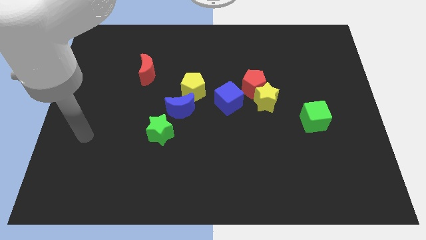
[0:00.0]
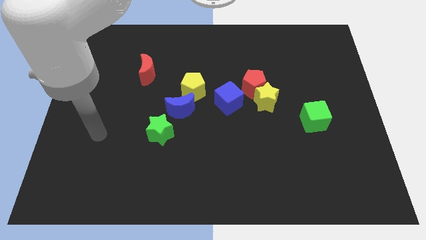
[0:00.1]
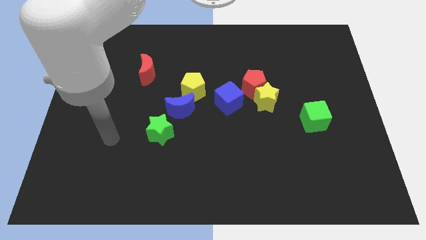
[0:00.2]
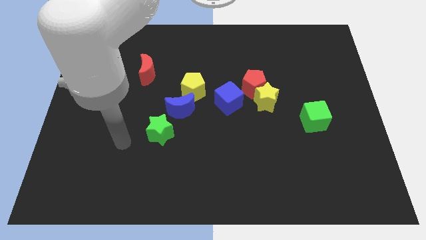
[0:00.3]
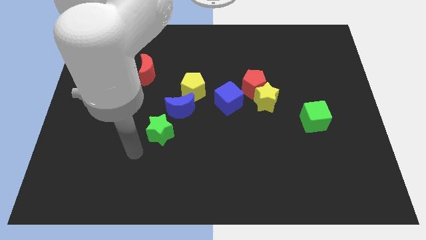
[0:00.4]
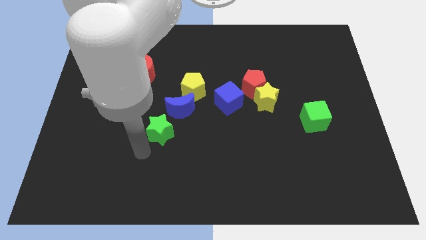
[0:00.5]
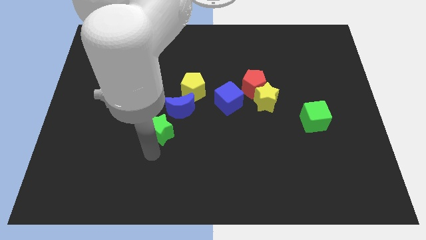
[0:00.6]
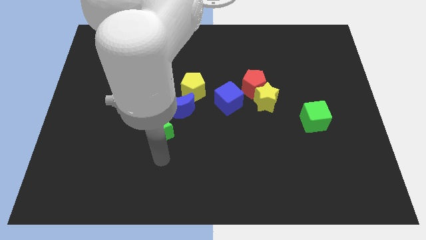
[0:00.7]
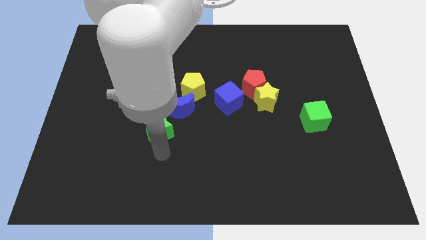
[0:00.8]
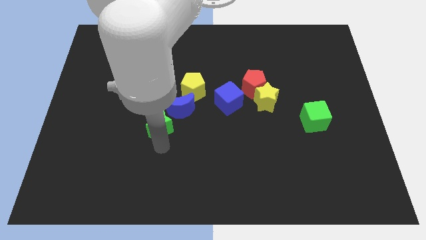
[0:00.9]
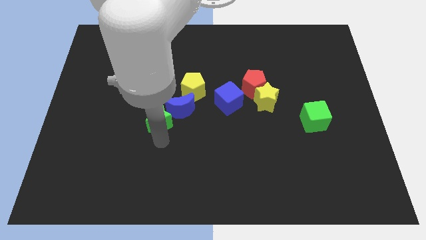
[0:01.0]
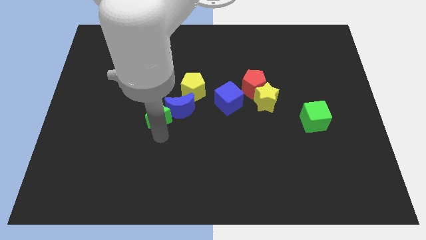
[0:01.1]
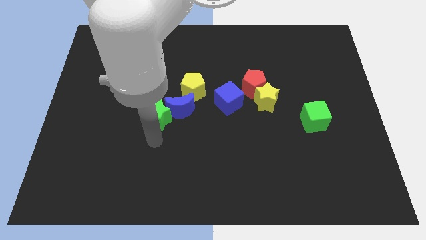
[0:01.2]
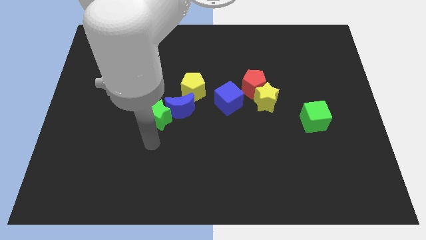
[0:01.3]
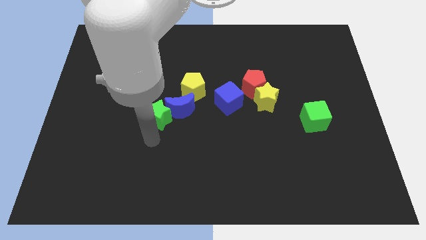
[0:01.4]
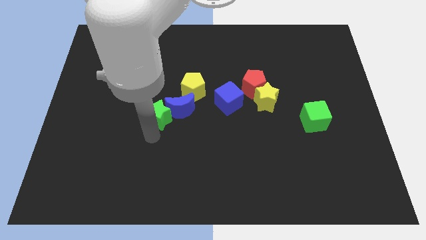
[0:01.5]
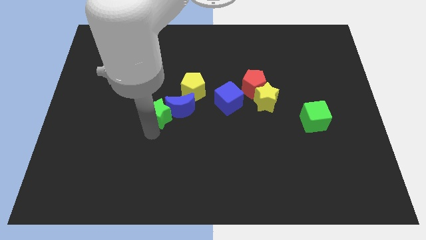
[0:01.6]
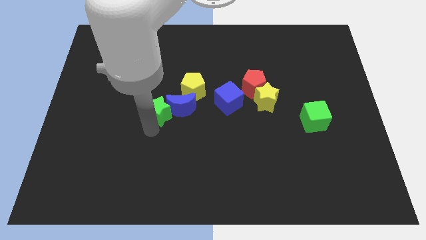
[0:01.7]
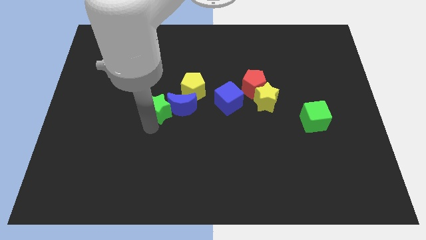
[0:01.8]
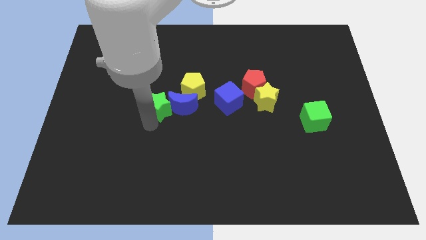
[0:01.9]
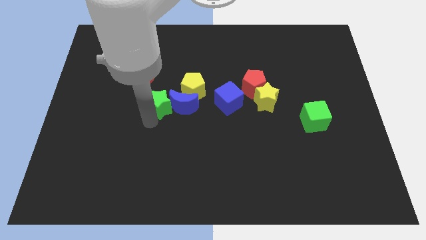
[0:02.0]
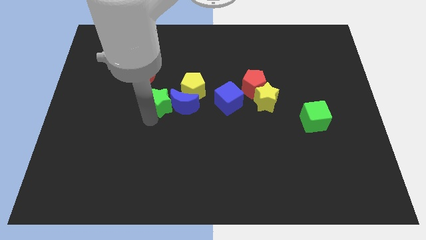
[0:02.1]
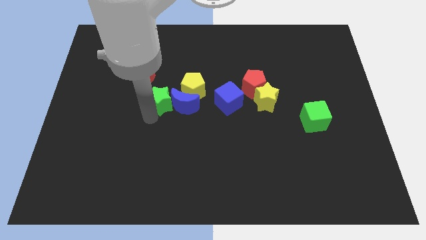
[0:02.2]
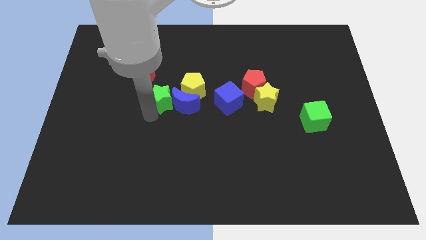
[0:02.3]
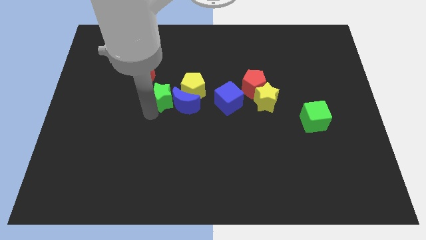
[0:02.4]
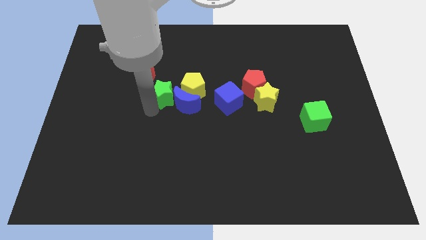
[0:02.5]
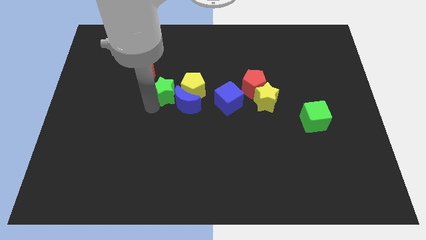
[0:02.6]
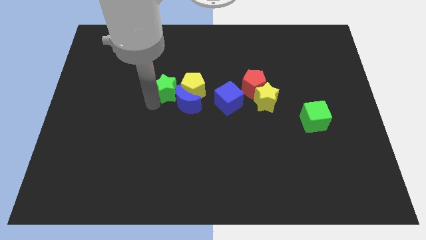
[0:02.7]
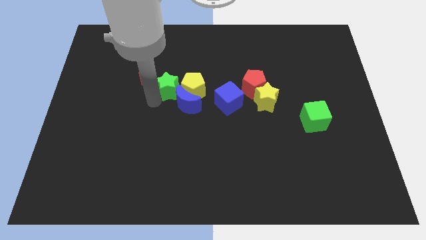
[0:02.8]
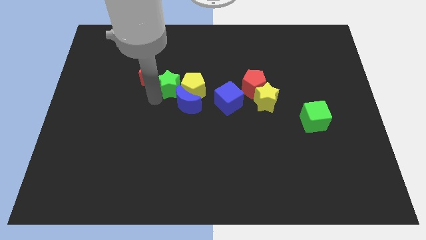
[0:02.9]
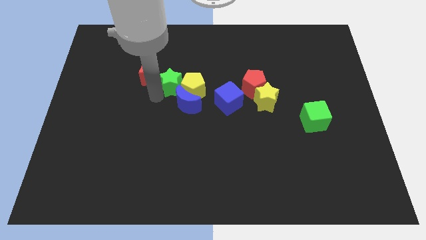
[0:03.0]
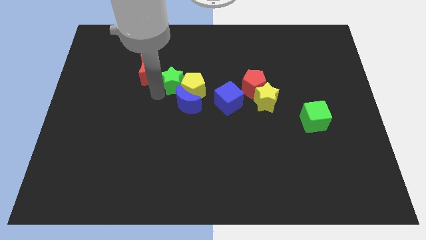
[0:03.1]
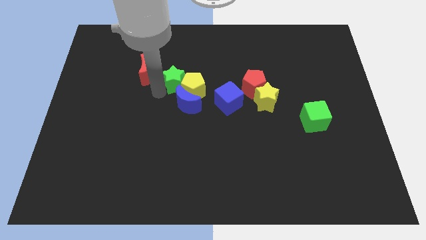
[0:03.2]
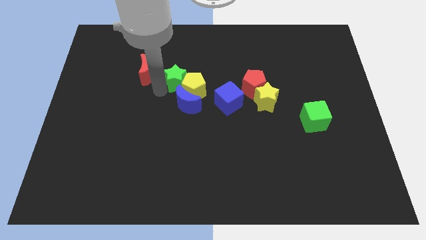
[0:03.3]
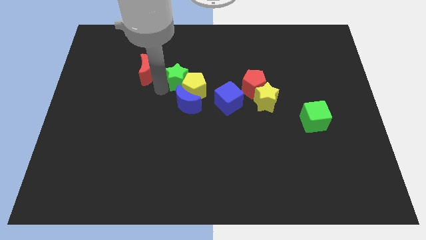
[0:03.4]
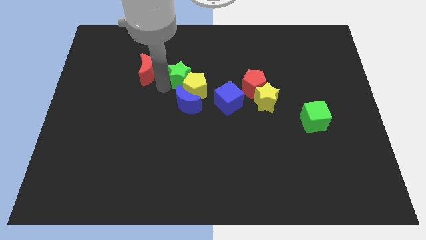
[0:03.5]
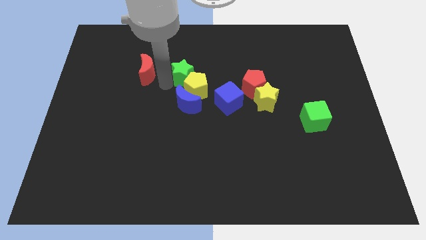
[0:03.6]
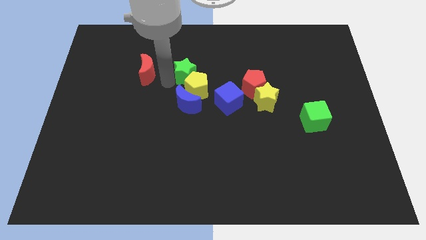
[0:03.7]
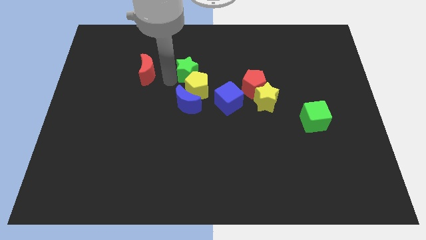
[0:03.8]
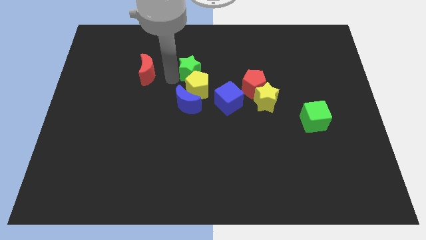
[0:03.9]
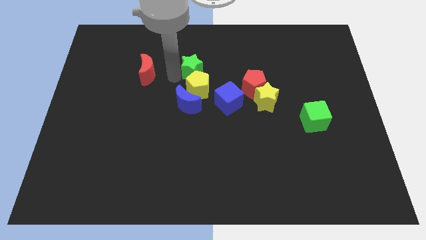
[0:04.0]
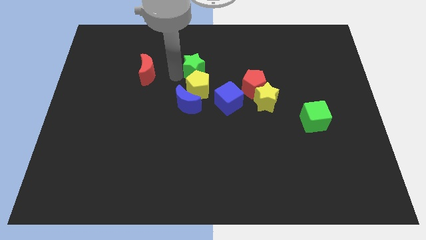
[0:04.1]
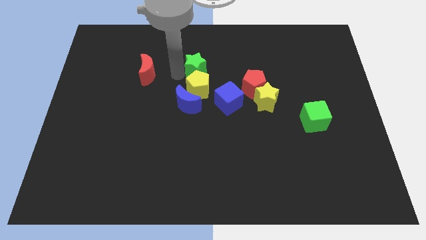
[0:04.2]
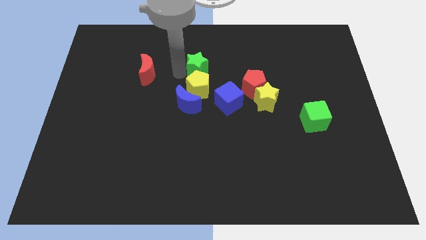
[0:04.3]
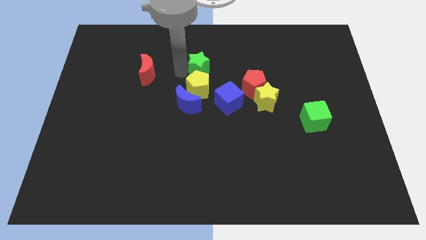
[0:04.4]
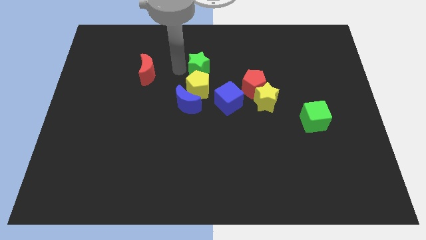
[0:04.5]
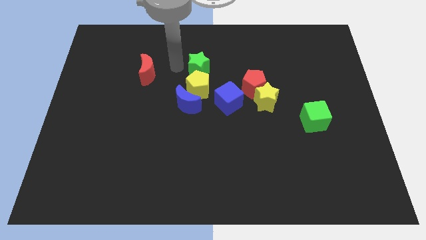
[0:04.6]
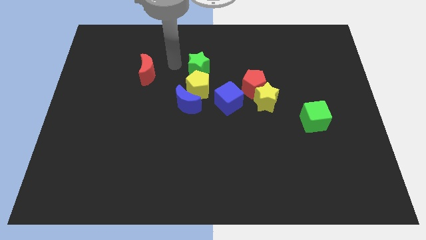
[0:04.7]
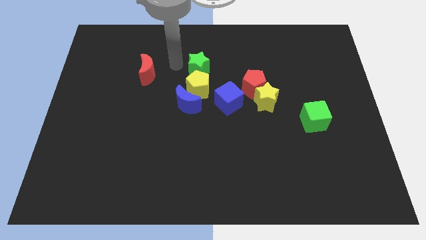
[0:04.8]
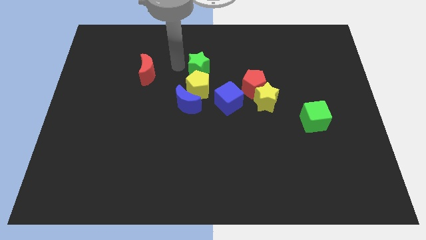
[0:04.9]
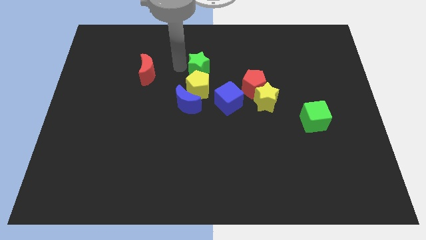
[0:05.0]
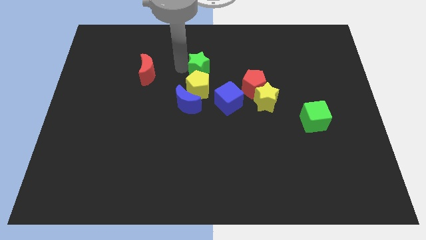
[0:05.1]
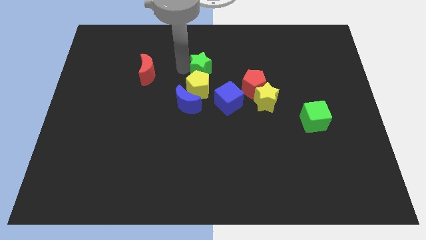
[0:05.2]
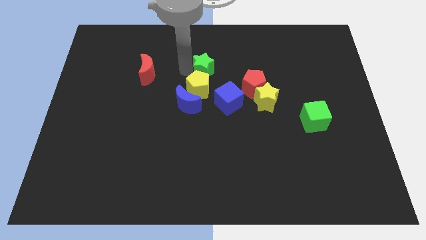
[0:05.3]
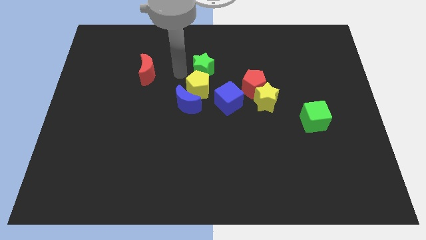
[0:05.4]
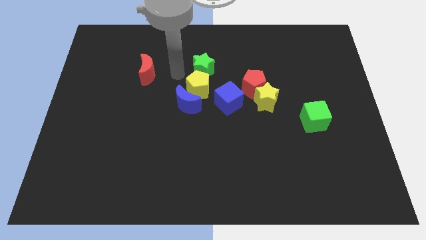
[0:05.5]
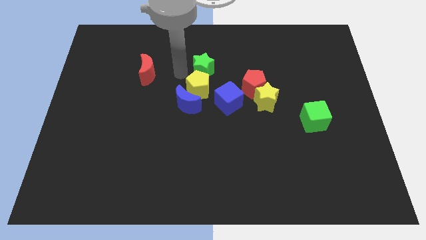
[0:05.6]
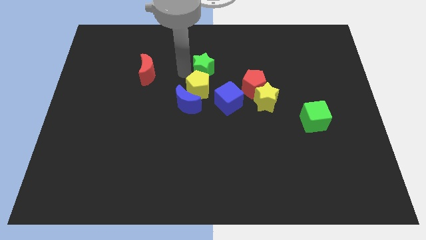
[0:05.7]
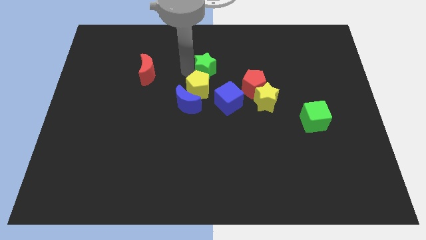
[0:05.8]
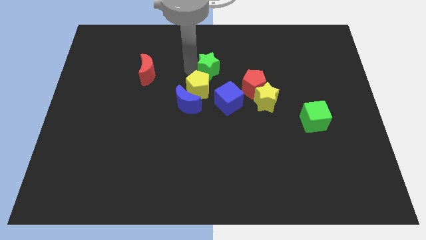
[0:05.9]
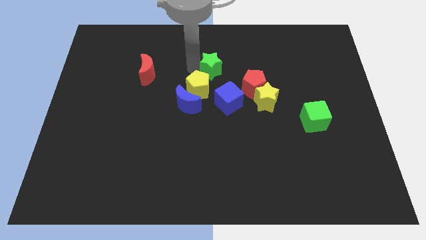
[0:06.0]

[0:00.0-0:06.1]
slide the green star diagonally up and to the right

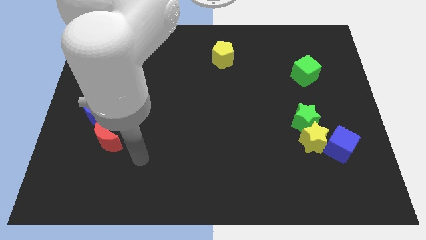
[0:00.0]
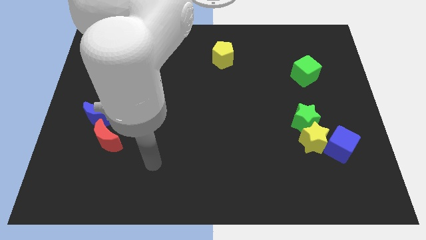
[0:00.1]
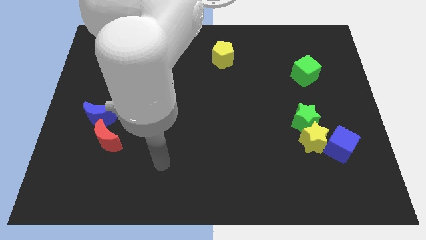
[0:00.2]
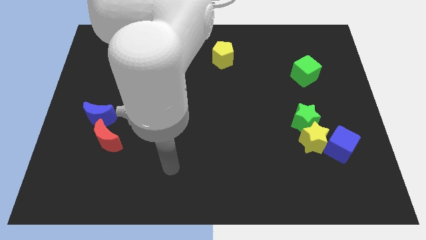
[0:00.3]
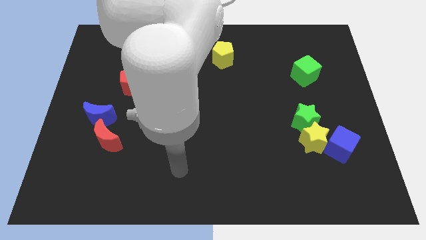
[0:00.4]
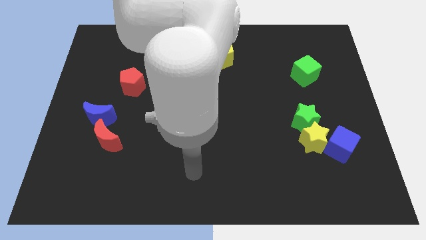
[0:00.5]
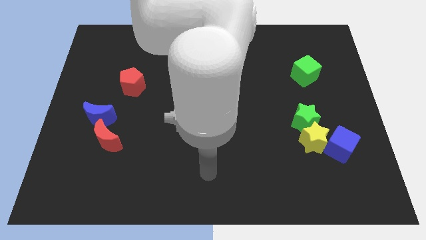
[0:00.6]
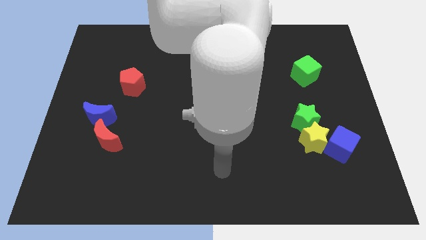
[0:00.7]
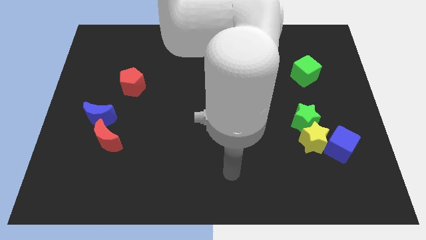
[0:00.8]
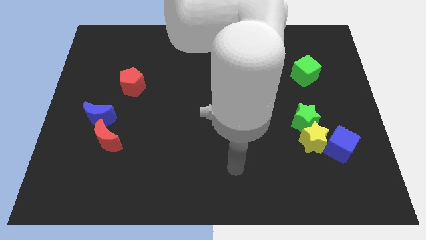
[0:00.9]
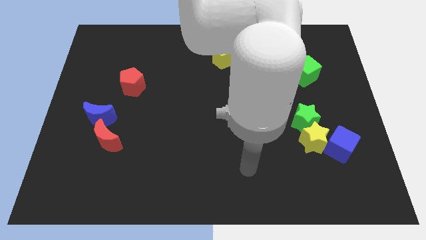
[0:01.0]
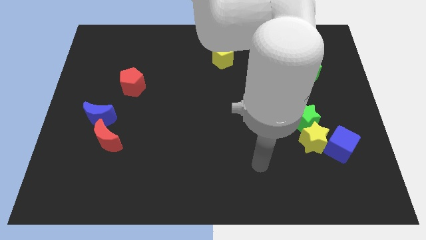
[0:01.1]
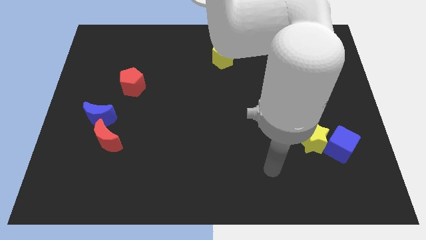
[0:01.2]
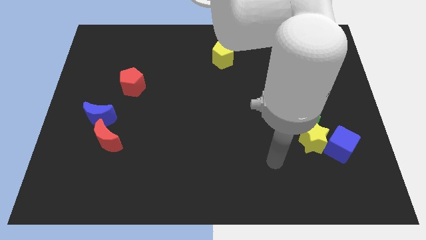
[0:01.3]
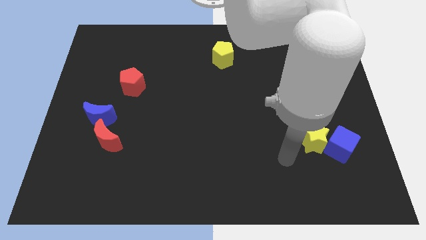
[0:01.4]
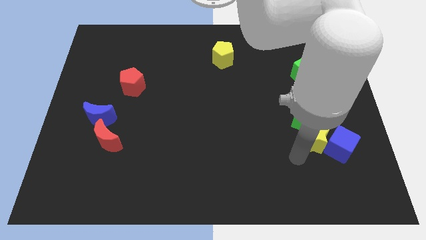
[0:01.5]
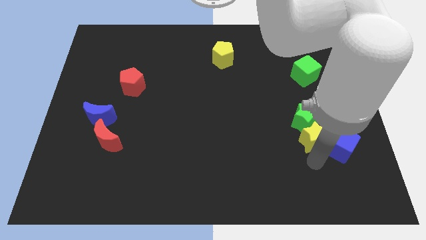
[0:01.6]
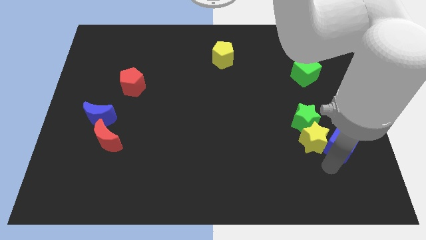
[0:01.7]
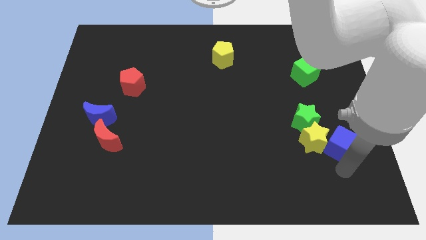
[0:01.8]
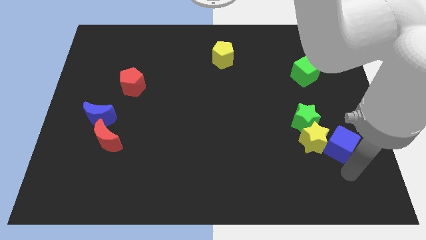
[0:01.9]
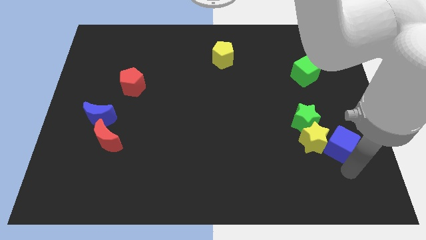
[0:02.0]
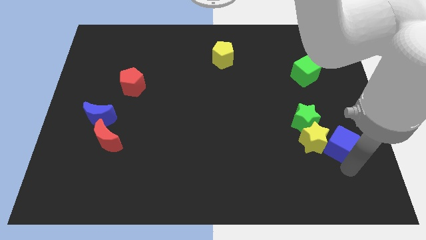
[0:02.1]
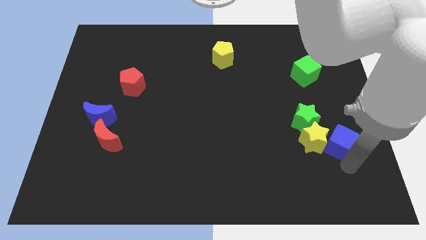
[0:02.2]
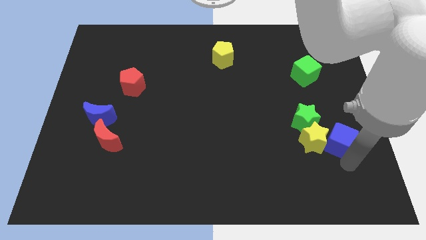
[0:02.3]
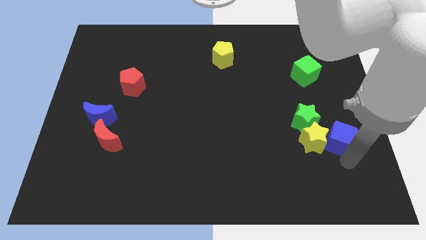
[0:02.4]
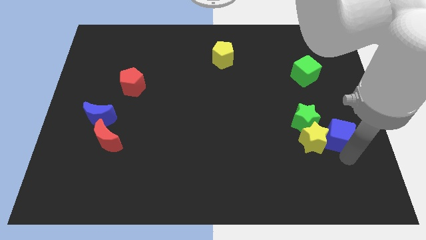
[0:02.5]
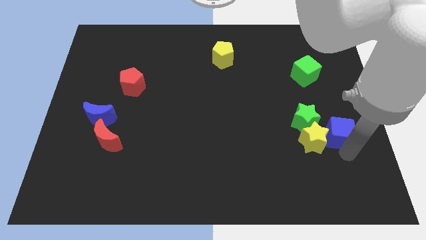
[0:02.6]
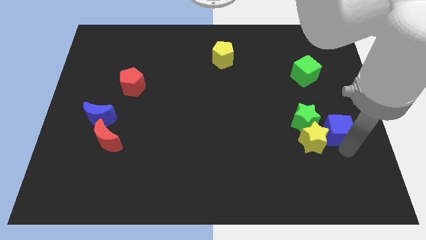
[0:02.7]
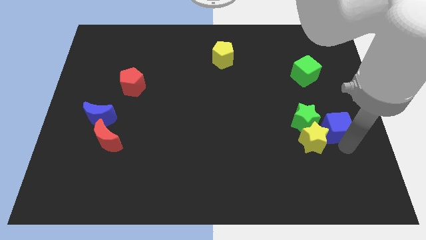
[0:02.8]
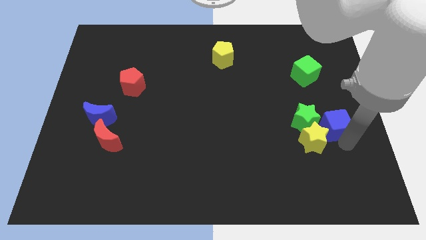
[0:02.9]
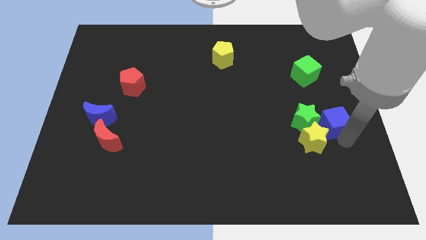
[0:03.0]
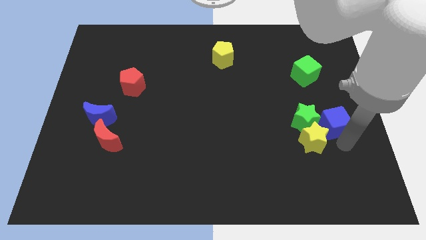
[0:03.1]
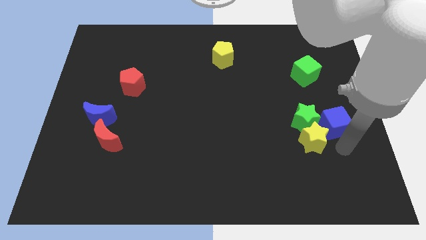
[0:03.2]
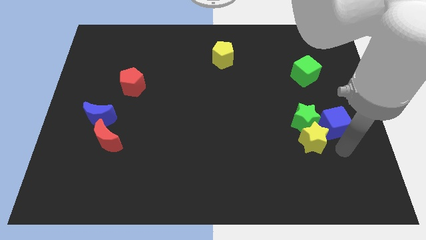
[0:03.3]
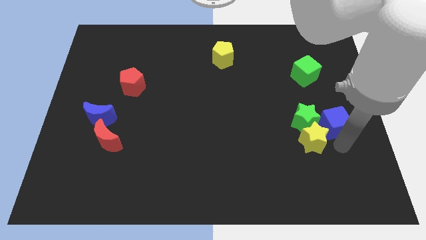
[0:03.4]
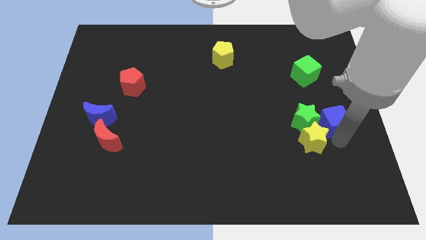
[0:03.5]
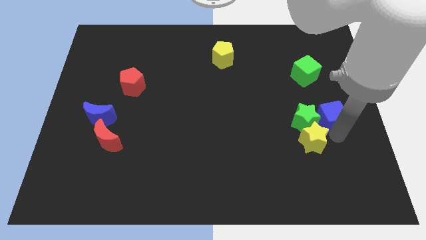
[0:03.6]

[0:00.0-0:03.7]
move the blue cube upwards somewhat
